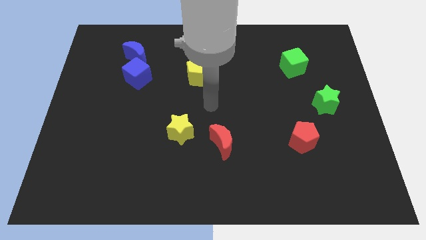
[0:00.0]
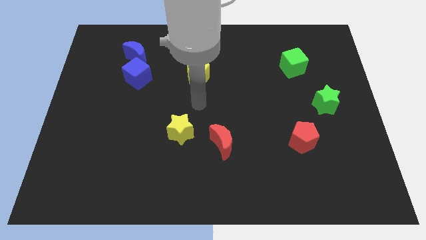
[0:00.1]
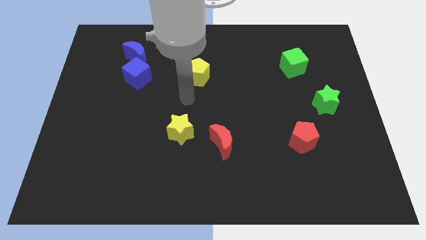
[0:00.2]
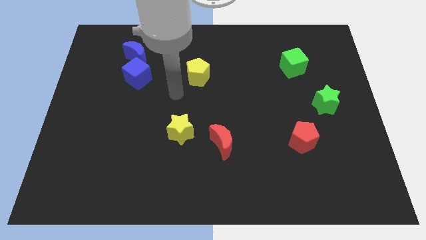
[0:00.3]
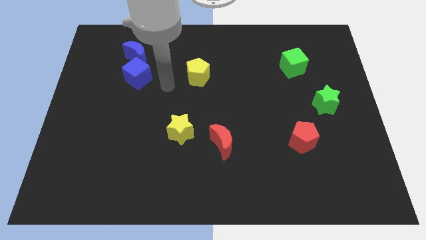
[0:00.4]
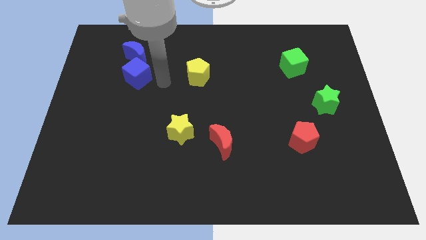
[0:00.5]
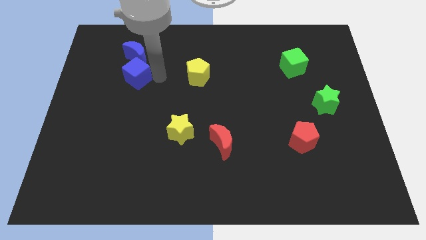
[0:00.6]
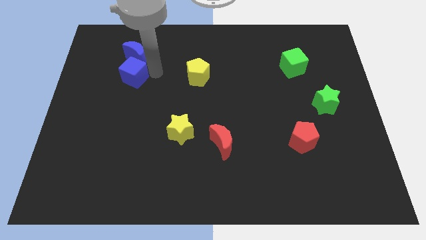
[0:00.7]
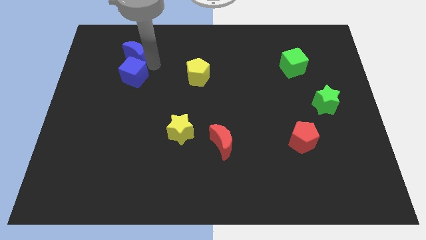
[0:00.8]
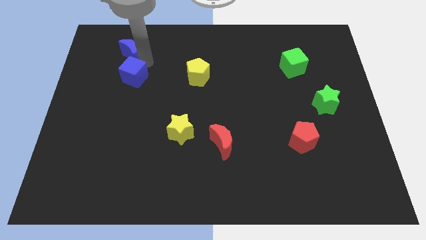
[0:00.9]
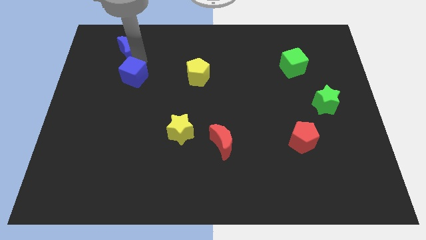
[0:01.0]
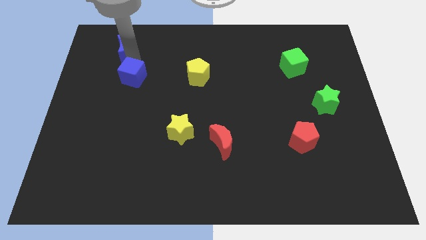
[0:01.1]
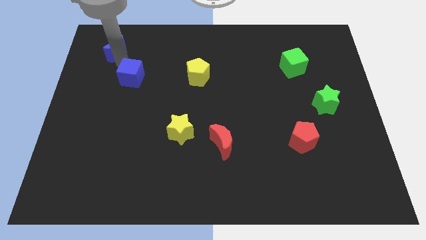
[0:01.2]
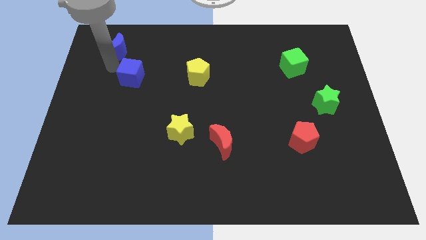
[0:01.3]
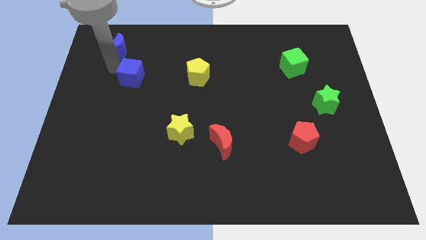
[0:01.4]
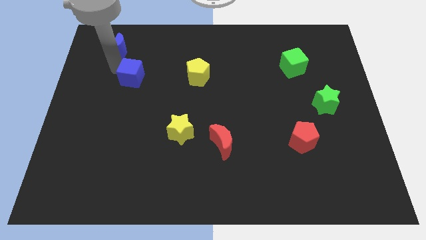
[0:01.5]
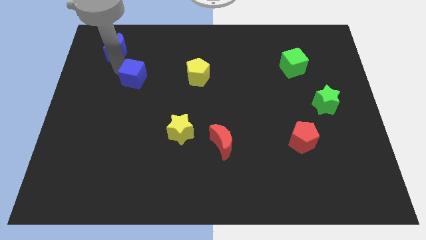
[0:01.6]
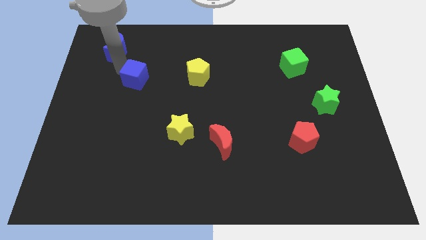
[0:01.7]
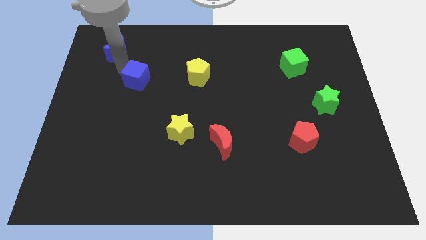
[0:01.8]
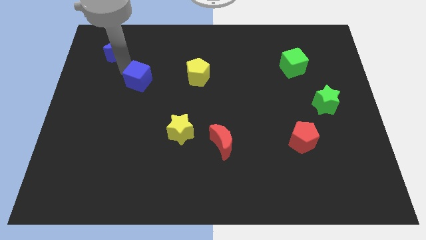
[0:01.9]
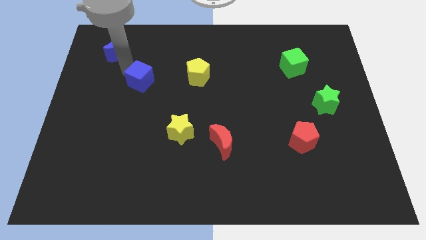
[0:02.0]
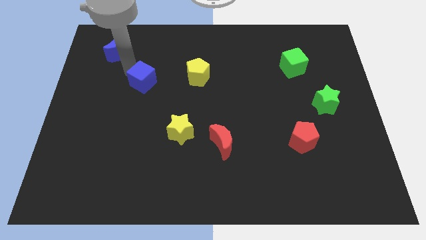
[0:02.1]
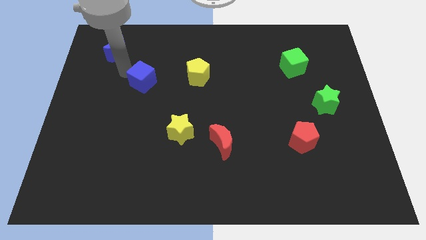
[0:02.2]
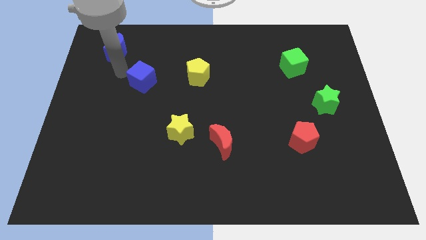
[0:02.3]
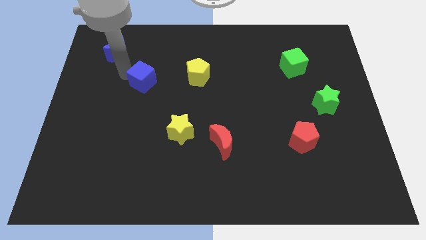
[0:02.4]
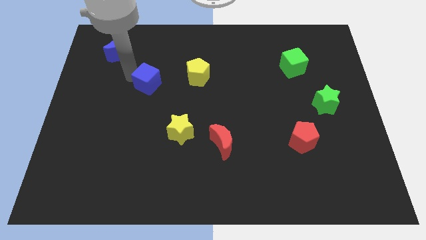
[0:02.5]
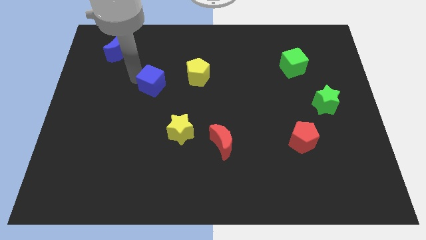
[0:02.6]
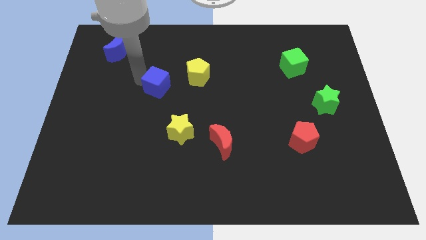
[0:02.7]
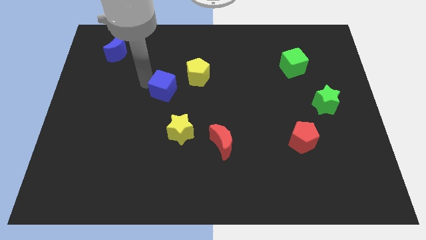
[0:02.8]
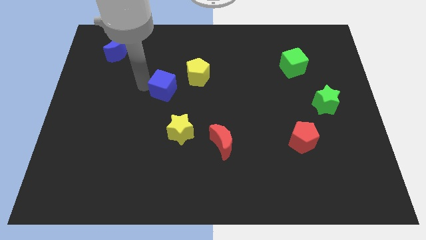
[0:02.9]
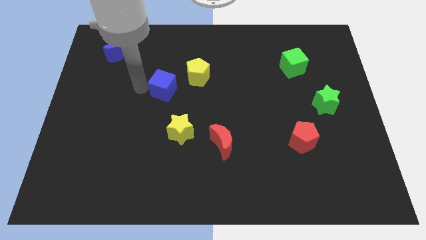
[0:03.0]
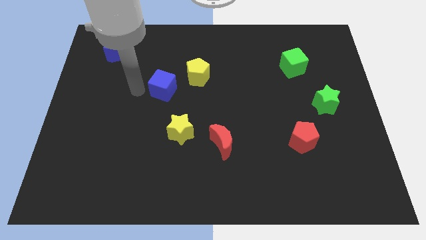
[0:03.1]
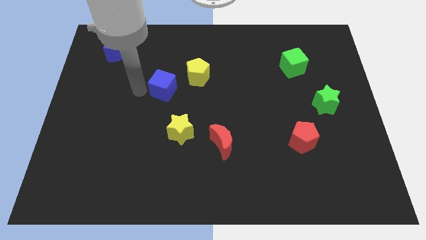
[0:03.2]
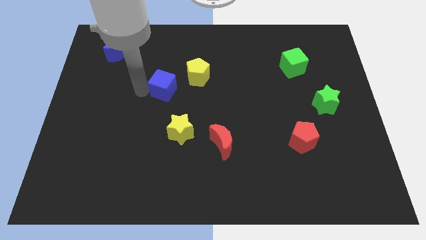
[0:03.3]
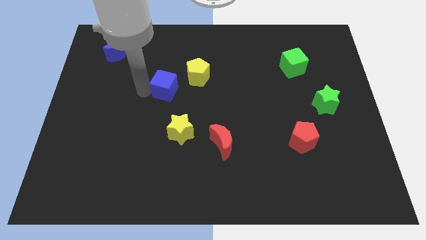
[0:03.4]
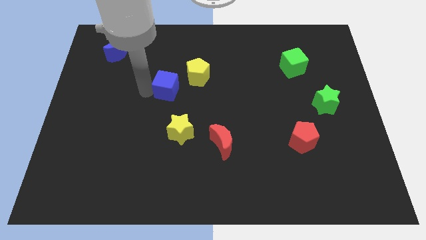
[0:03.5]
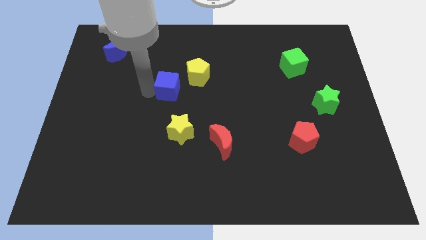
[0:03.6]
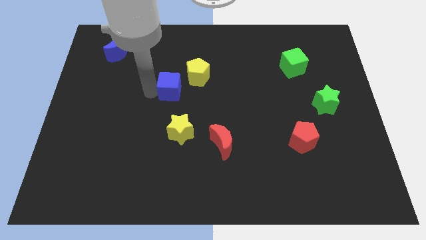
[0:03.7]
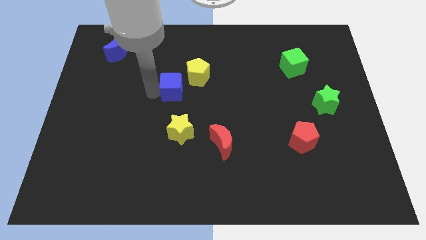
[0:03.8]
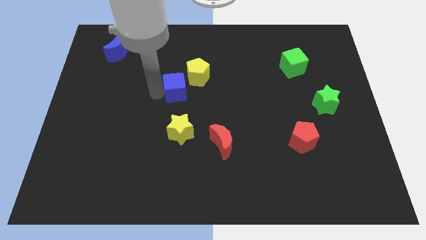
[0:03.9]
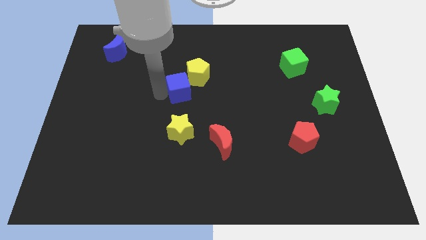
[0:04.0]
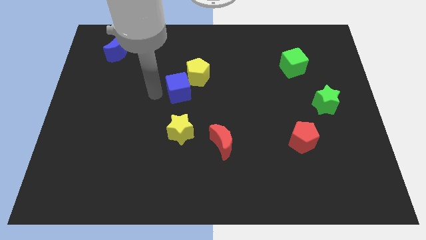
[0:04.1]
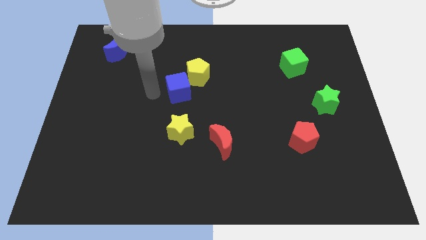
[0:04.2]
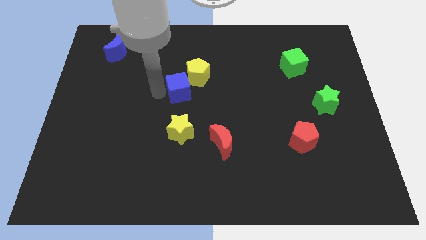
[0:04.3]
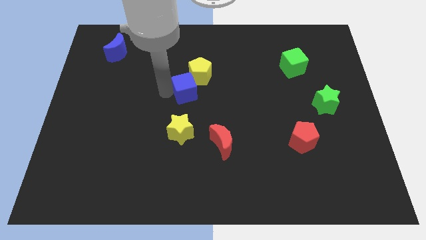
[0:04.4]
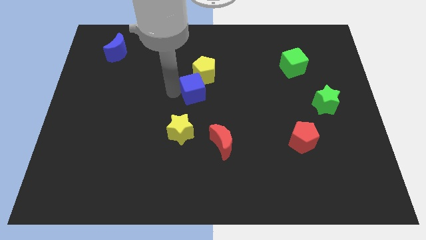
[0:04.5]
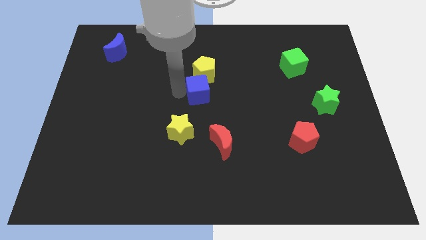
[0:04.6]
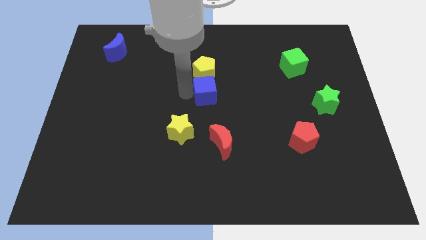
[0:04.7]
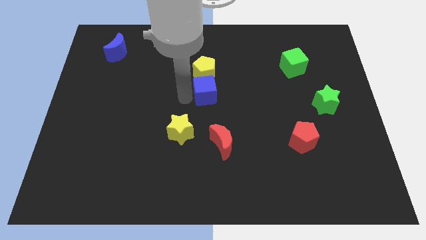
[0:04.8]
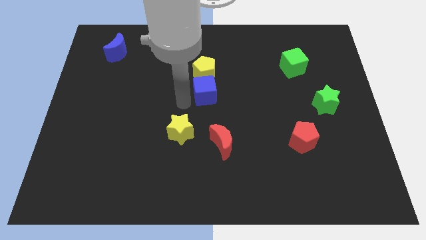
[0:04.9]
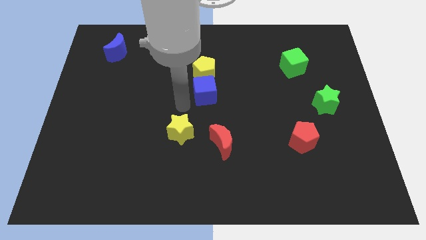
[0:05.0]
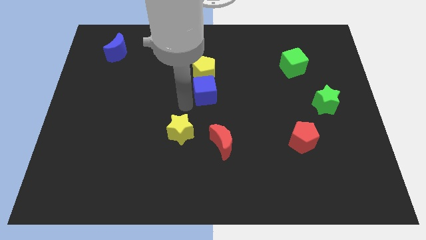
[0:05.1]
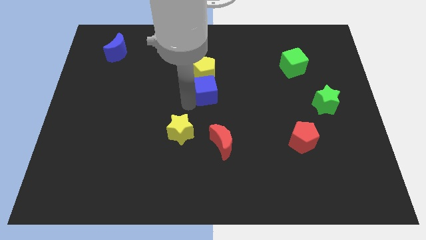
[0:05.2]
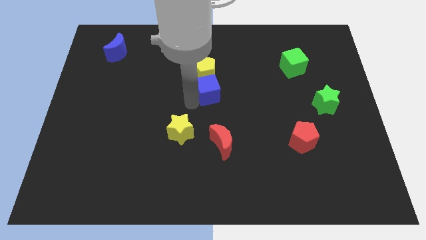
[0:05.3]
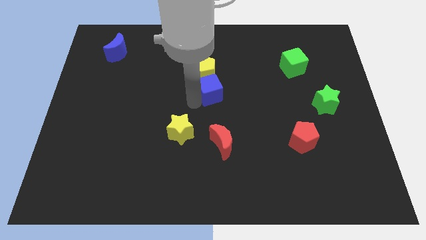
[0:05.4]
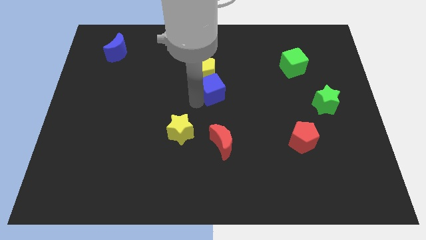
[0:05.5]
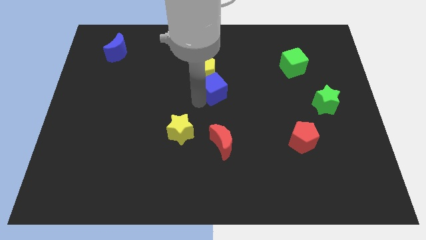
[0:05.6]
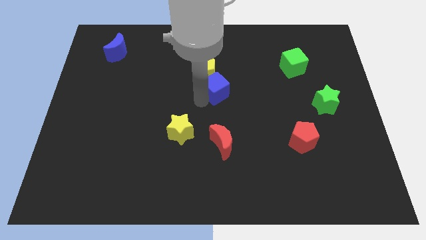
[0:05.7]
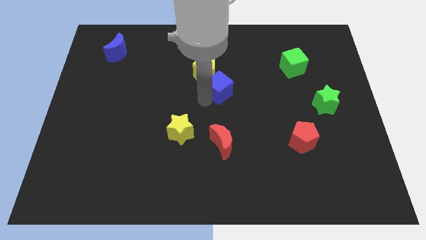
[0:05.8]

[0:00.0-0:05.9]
move the blue cube to the right

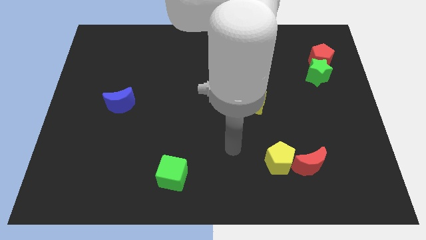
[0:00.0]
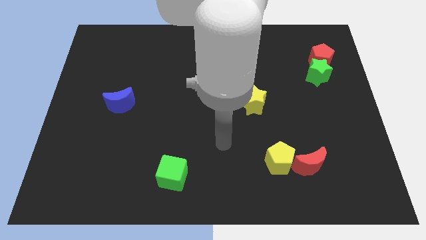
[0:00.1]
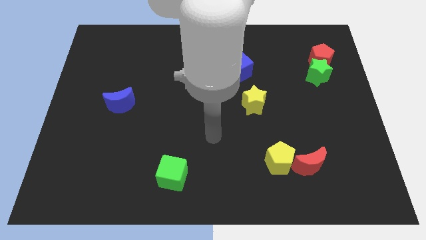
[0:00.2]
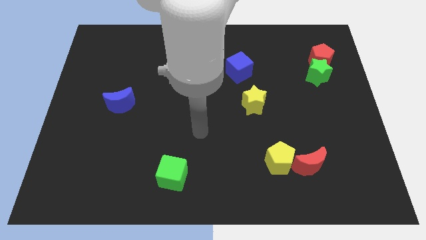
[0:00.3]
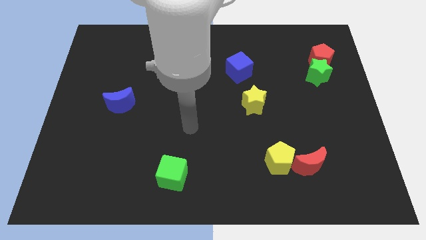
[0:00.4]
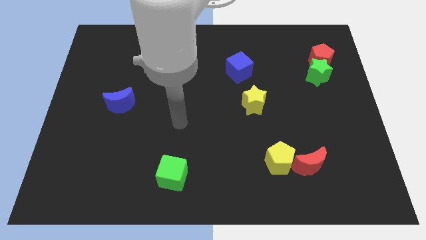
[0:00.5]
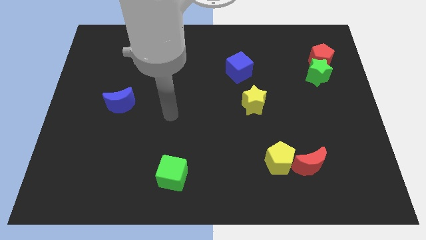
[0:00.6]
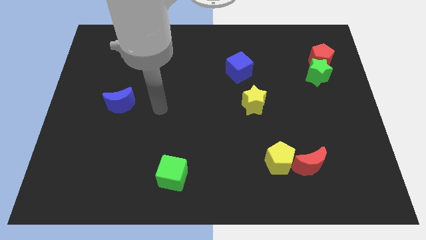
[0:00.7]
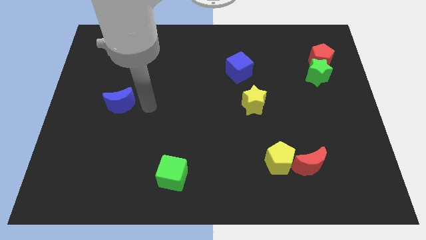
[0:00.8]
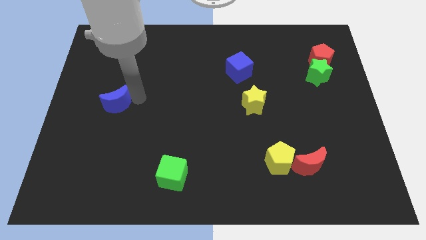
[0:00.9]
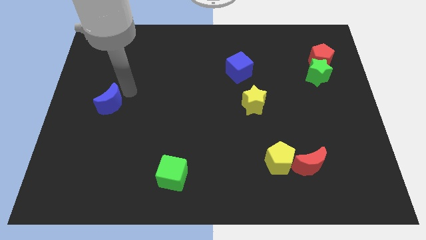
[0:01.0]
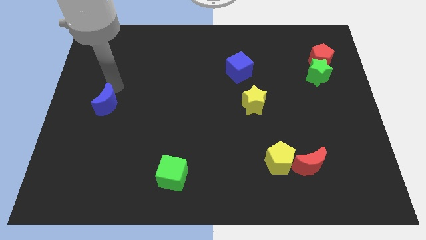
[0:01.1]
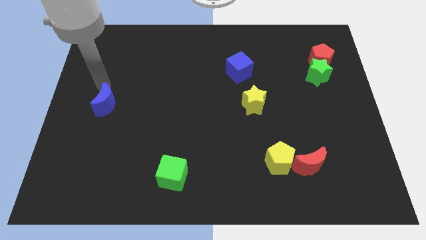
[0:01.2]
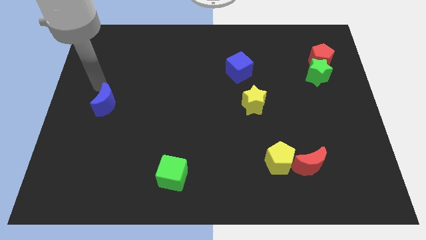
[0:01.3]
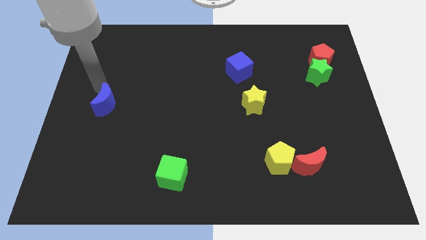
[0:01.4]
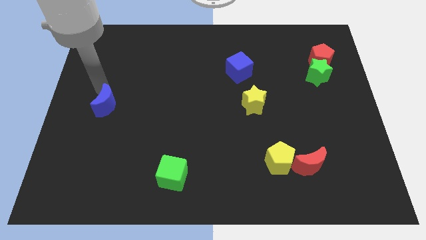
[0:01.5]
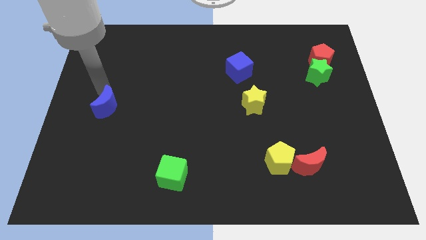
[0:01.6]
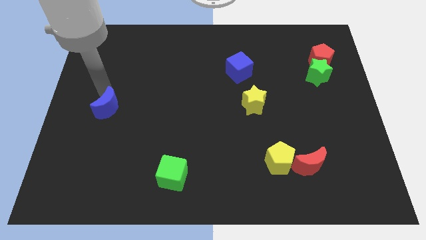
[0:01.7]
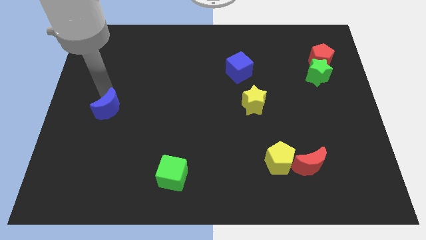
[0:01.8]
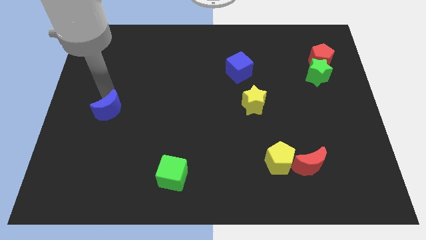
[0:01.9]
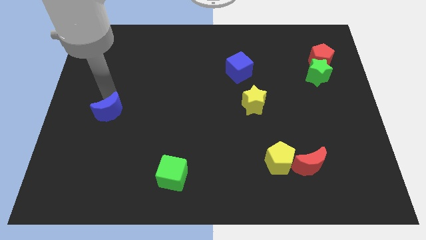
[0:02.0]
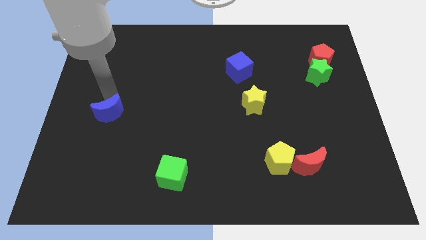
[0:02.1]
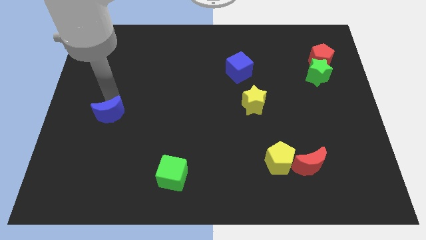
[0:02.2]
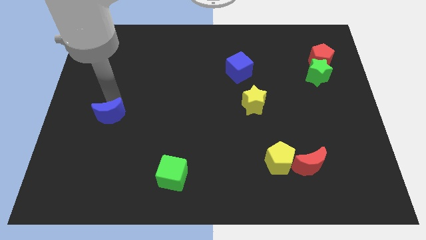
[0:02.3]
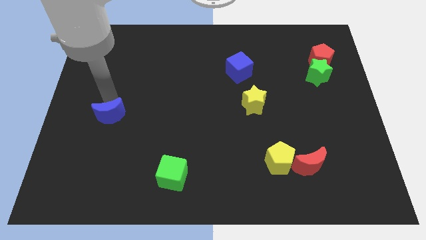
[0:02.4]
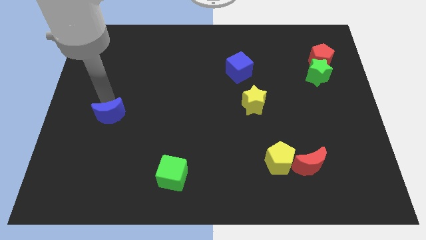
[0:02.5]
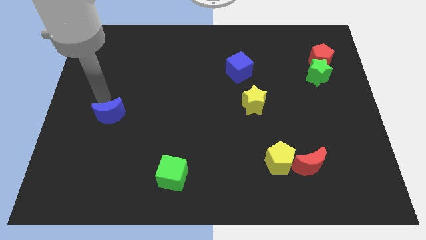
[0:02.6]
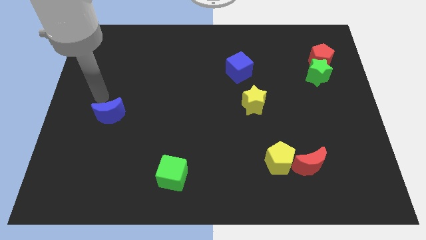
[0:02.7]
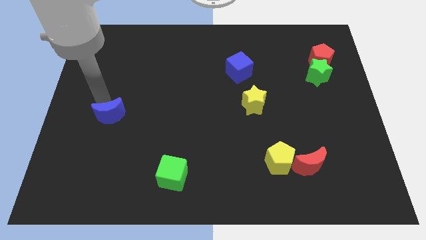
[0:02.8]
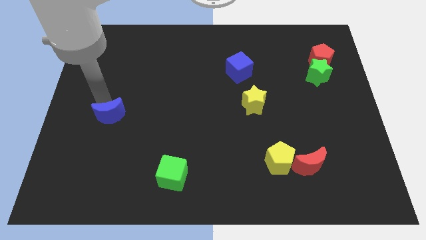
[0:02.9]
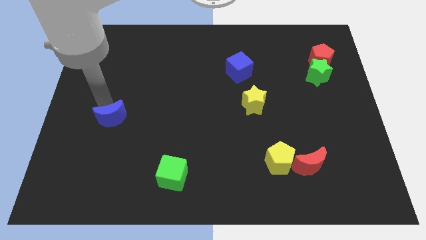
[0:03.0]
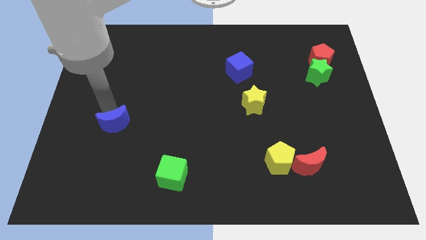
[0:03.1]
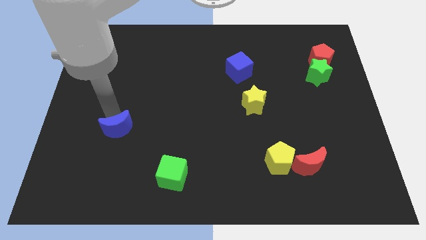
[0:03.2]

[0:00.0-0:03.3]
slightly move the blue moon downwards
